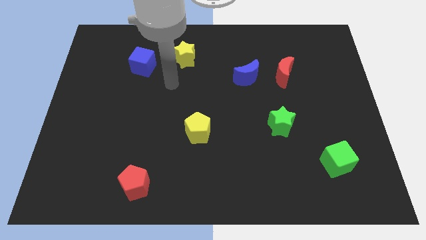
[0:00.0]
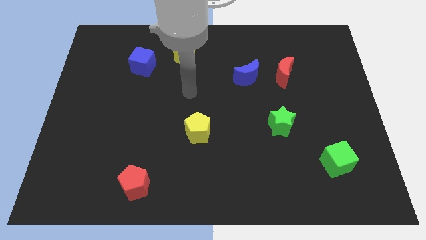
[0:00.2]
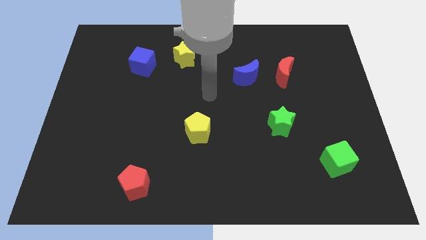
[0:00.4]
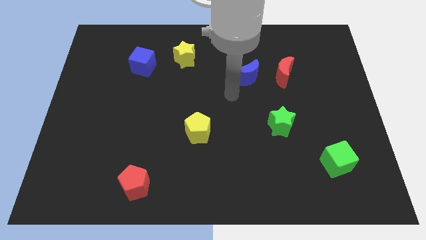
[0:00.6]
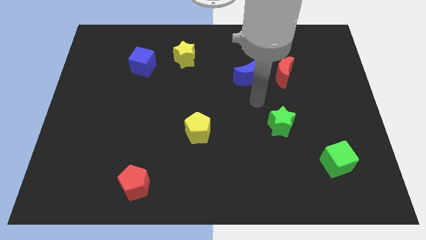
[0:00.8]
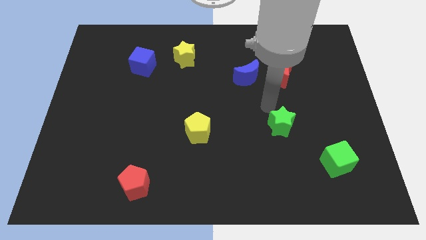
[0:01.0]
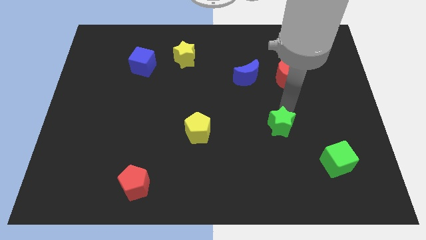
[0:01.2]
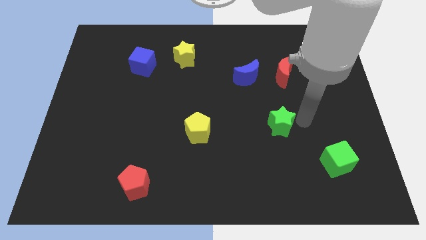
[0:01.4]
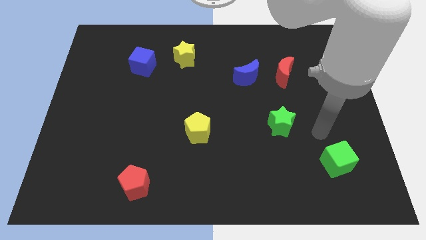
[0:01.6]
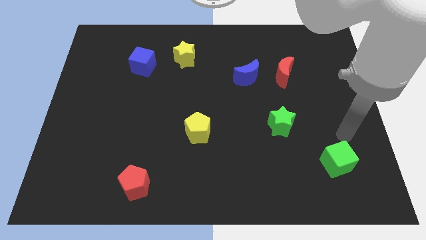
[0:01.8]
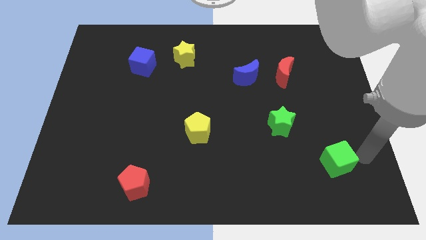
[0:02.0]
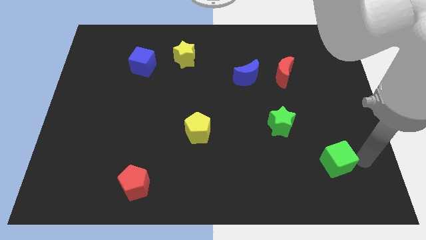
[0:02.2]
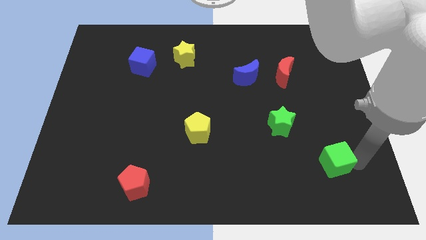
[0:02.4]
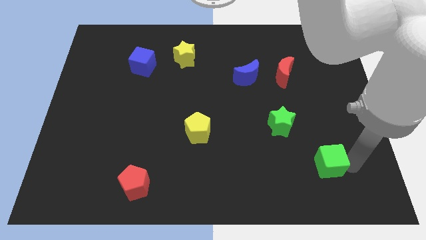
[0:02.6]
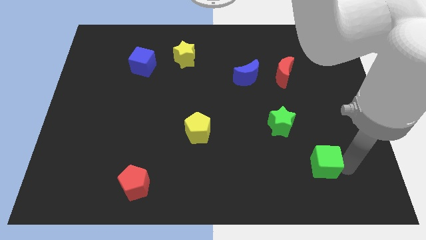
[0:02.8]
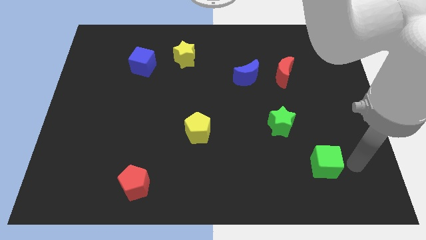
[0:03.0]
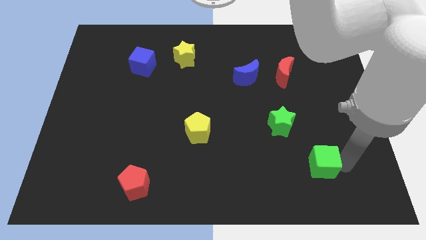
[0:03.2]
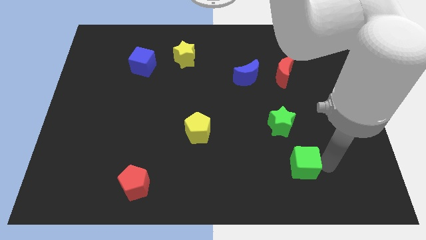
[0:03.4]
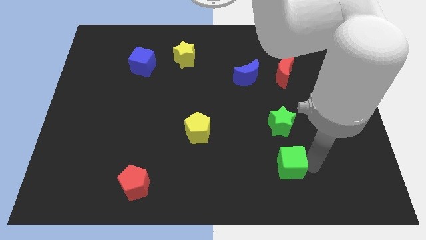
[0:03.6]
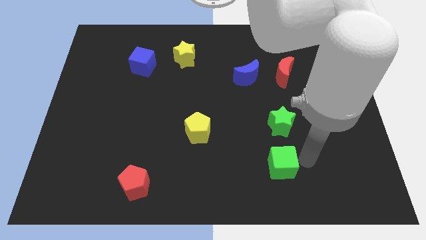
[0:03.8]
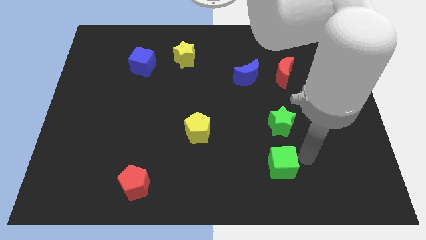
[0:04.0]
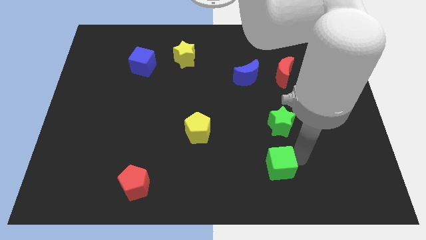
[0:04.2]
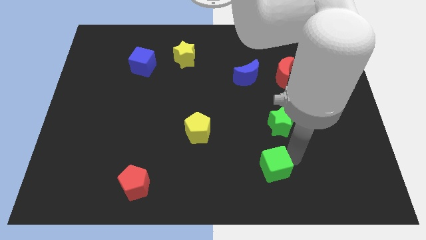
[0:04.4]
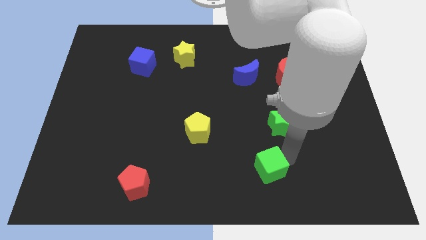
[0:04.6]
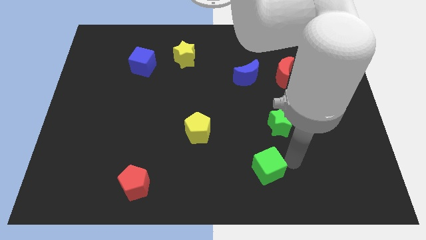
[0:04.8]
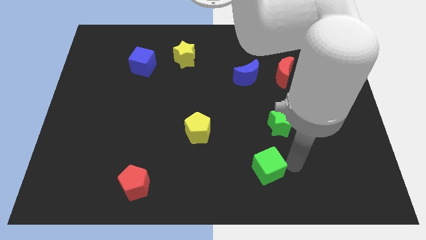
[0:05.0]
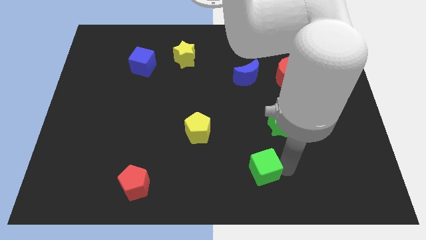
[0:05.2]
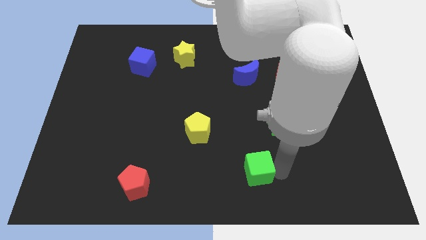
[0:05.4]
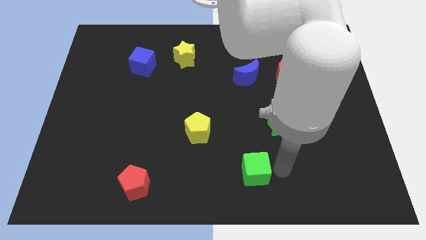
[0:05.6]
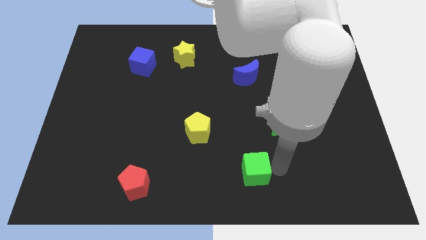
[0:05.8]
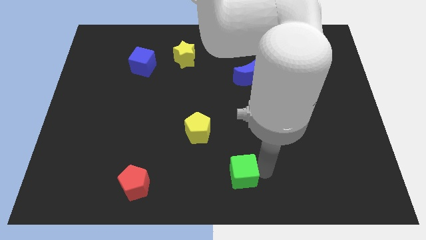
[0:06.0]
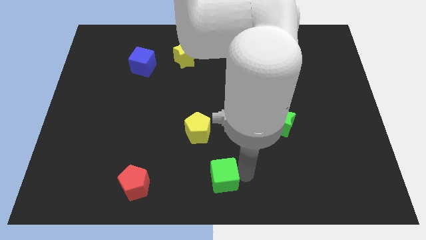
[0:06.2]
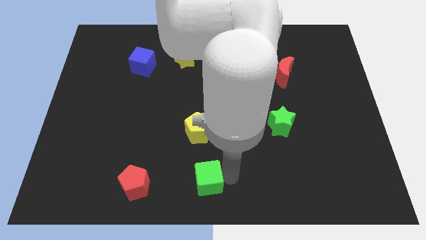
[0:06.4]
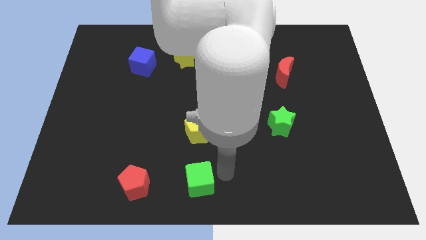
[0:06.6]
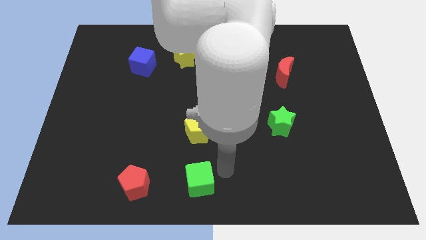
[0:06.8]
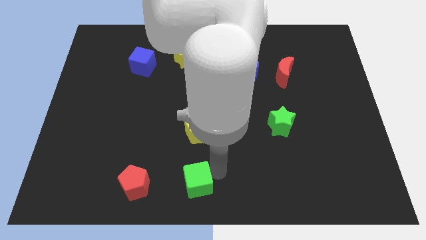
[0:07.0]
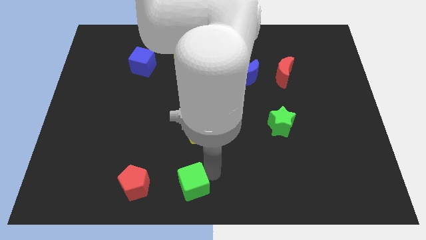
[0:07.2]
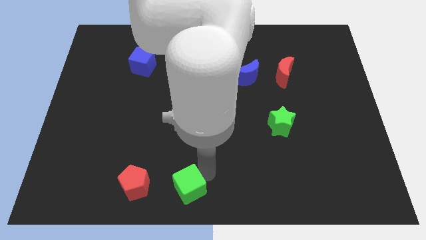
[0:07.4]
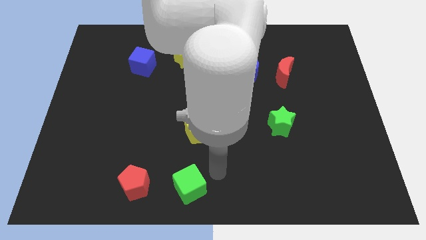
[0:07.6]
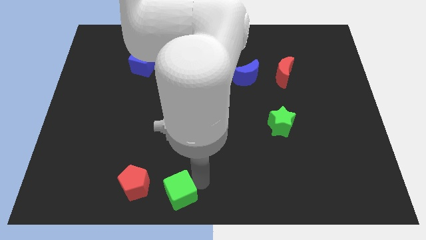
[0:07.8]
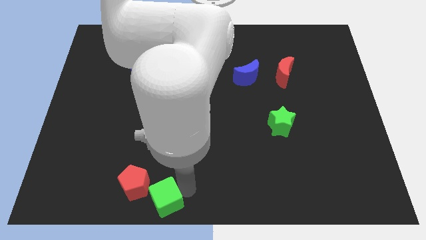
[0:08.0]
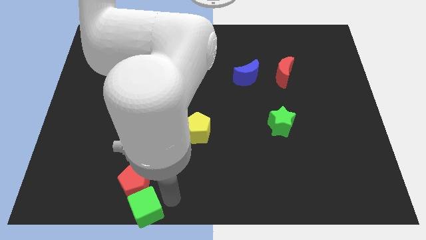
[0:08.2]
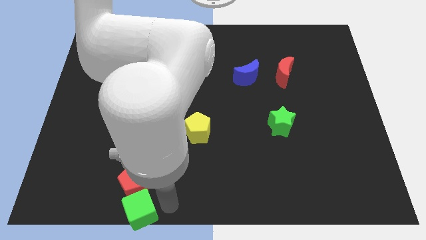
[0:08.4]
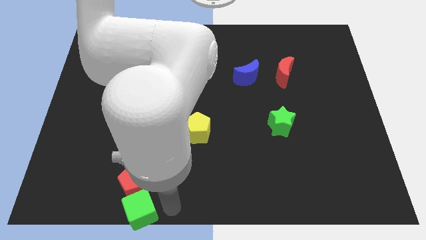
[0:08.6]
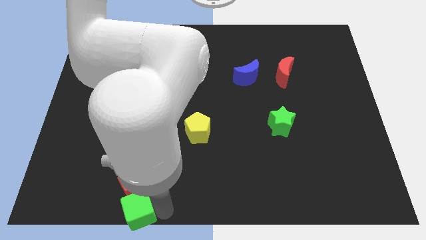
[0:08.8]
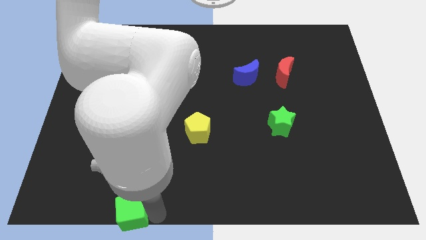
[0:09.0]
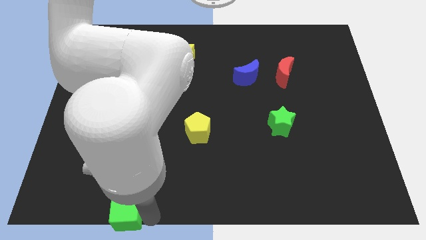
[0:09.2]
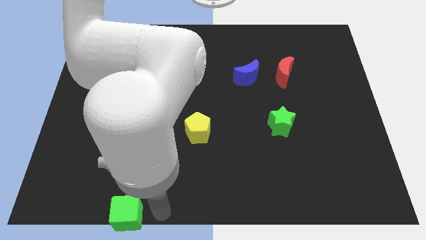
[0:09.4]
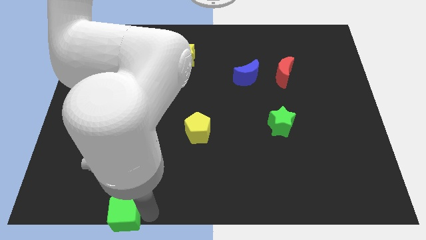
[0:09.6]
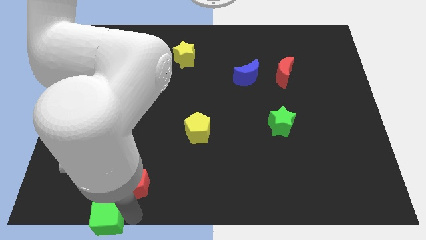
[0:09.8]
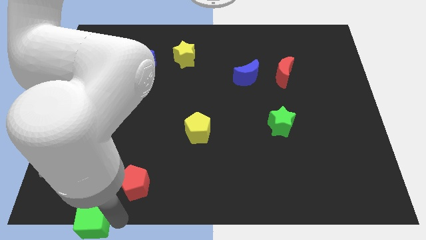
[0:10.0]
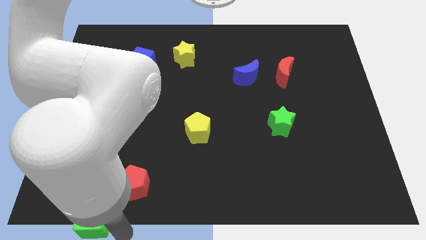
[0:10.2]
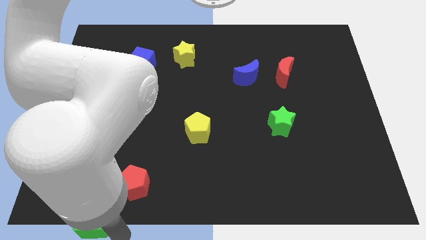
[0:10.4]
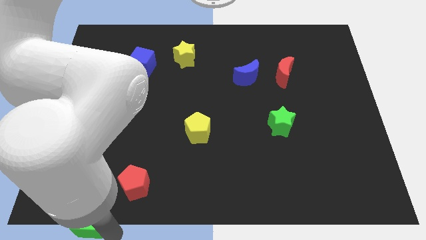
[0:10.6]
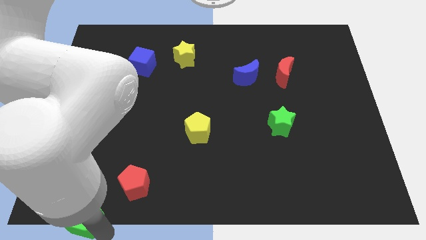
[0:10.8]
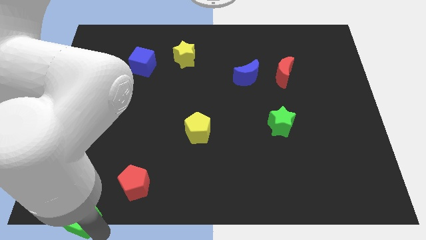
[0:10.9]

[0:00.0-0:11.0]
move the green cube to the bottom left

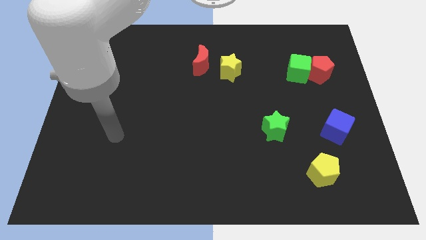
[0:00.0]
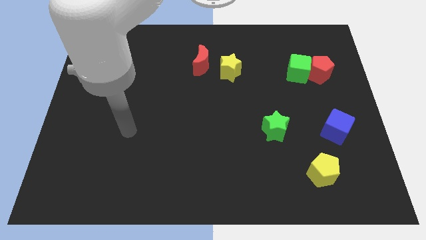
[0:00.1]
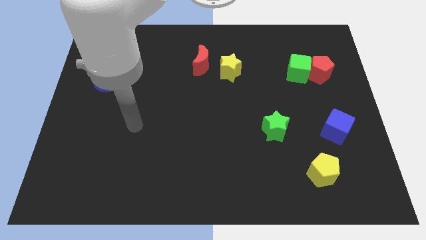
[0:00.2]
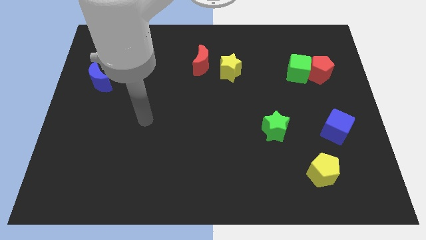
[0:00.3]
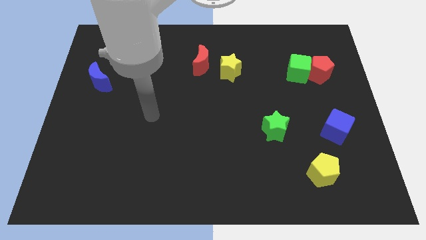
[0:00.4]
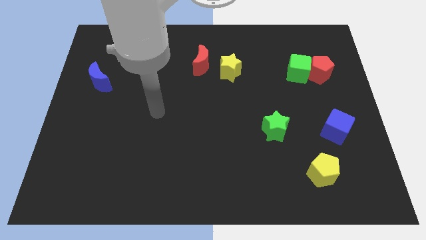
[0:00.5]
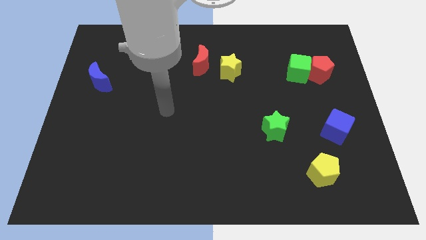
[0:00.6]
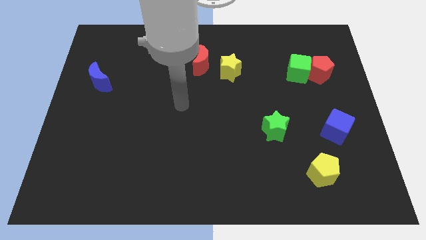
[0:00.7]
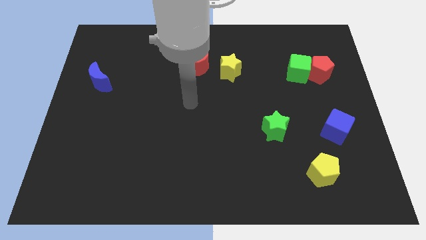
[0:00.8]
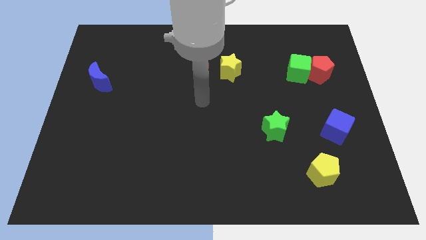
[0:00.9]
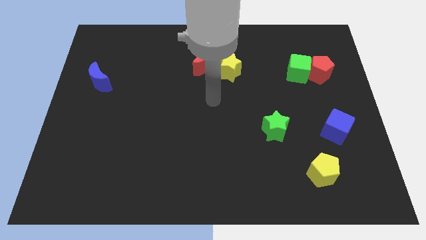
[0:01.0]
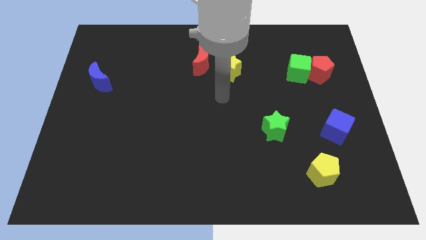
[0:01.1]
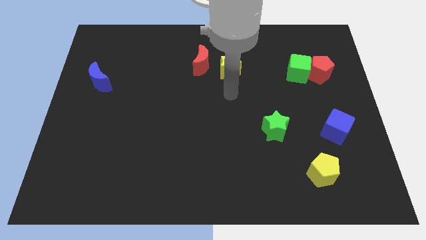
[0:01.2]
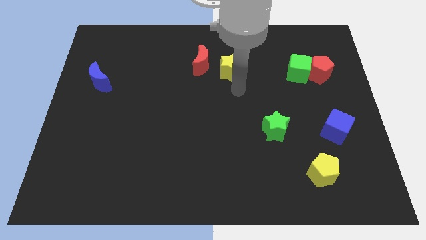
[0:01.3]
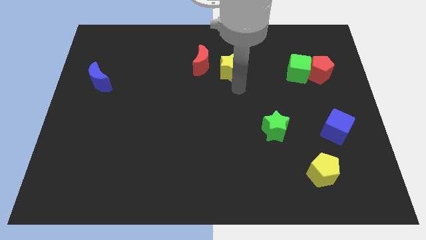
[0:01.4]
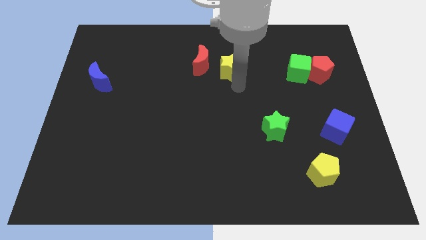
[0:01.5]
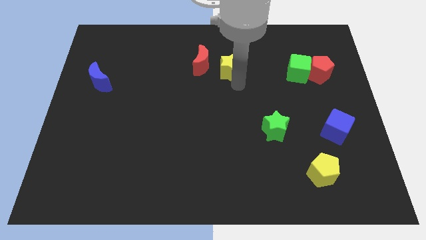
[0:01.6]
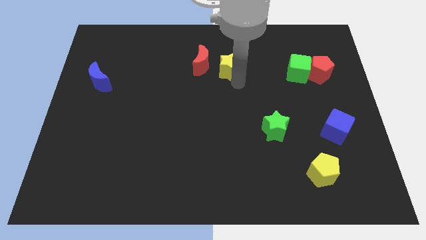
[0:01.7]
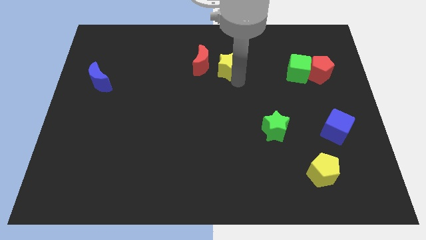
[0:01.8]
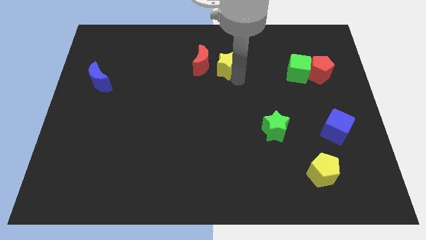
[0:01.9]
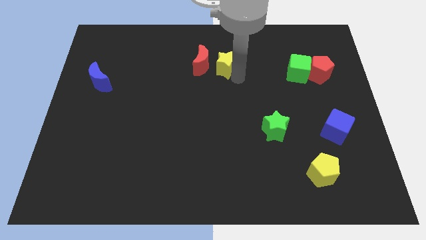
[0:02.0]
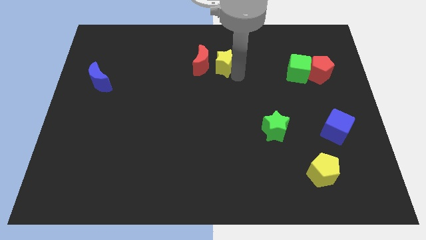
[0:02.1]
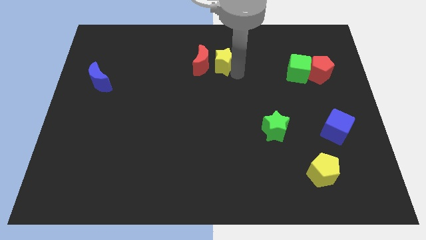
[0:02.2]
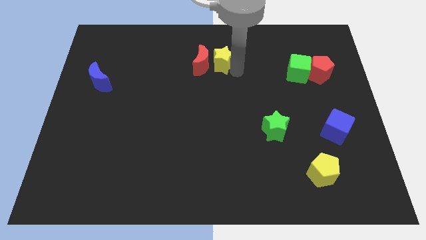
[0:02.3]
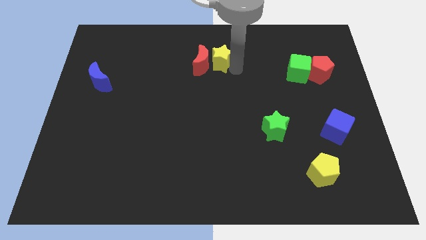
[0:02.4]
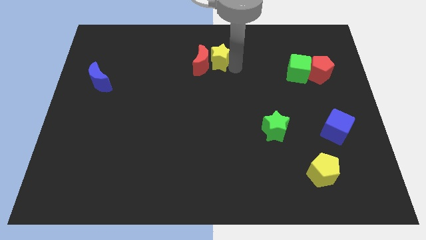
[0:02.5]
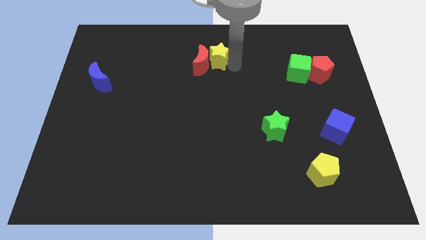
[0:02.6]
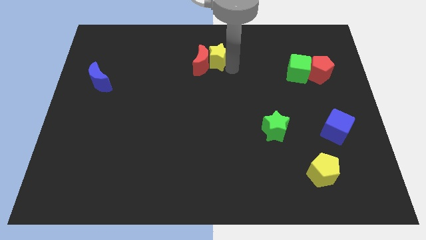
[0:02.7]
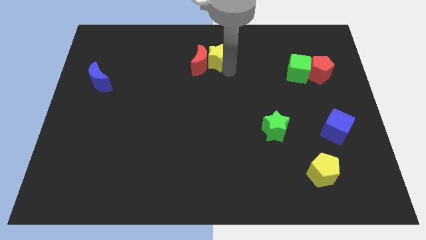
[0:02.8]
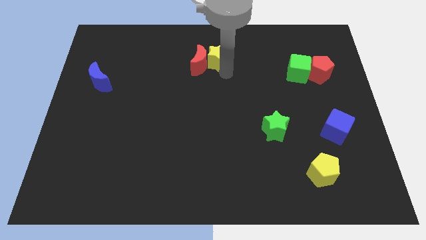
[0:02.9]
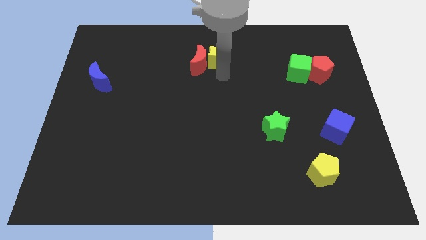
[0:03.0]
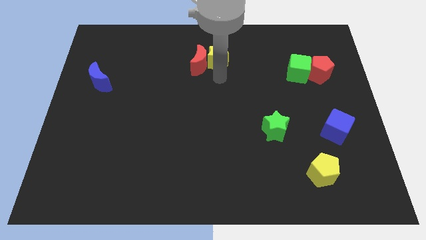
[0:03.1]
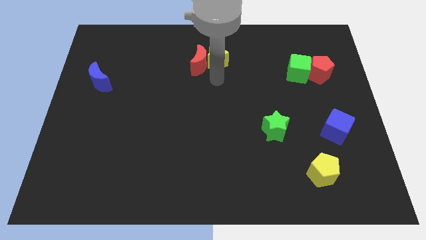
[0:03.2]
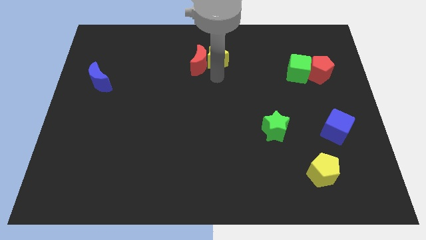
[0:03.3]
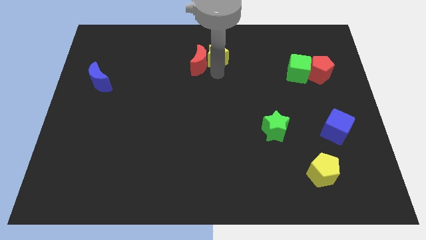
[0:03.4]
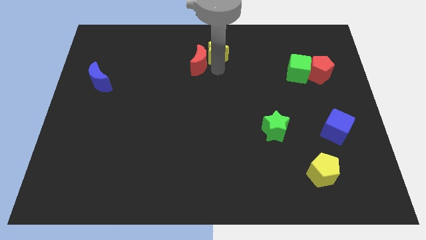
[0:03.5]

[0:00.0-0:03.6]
move the yellow star to the towards your base
